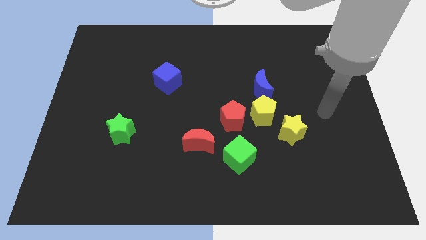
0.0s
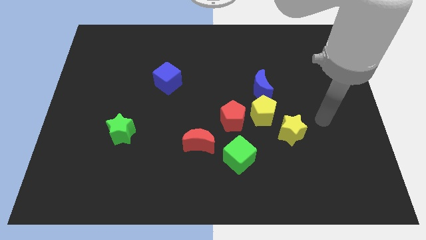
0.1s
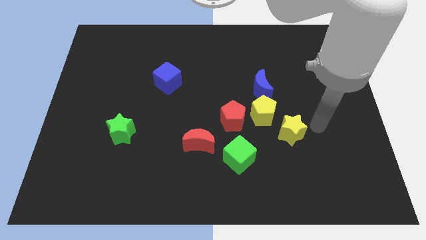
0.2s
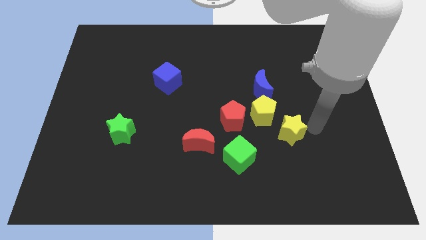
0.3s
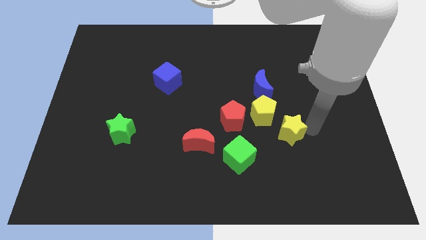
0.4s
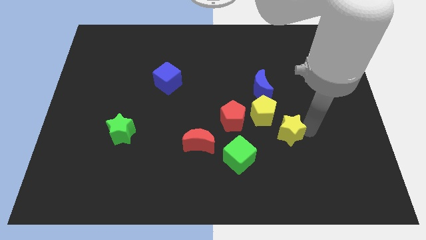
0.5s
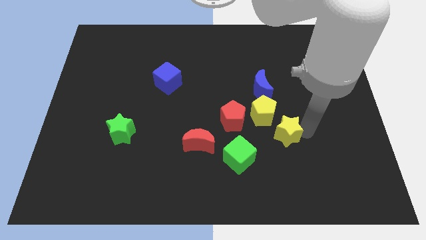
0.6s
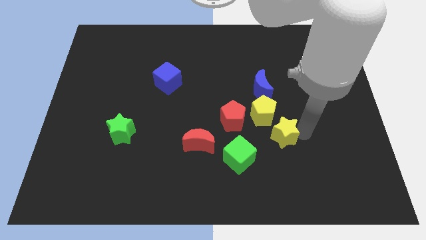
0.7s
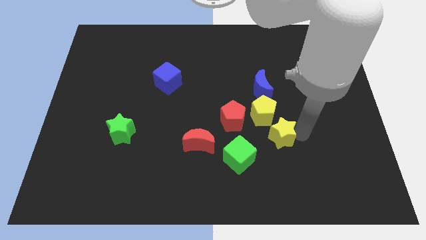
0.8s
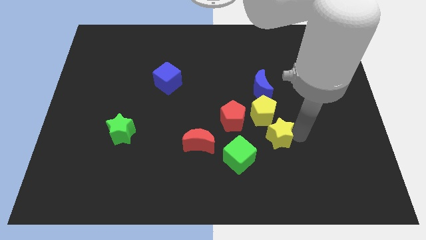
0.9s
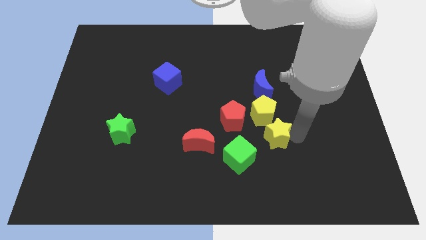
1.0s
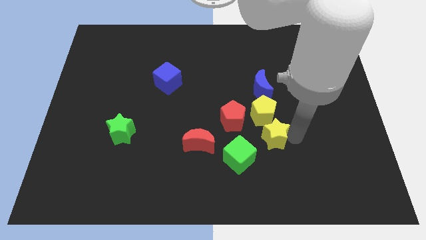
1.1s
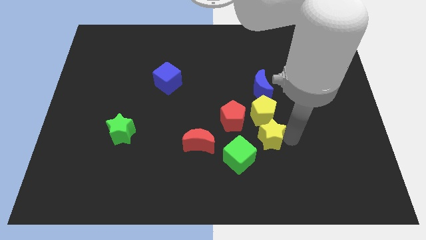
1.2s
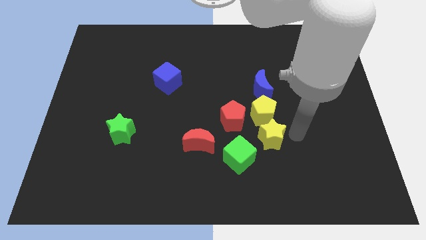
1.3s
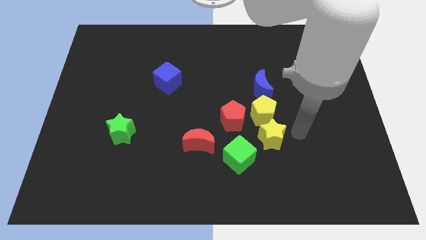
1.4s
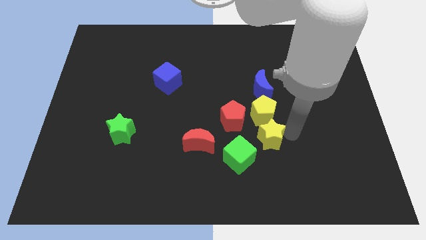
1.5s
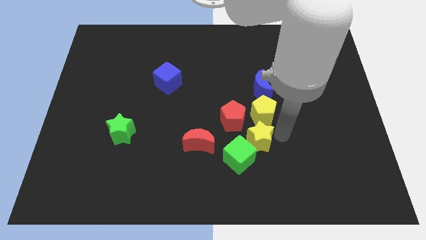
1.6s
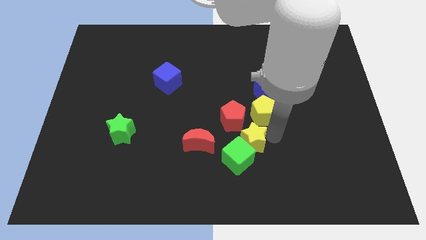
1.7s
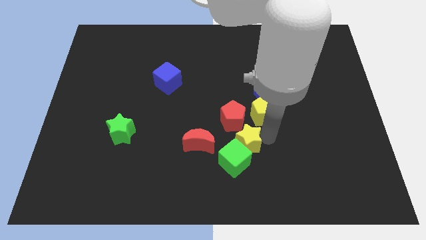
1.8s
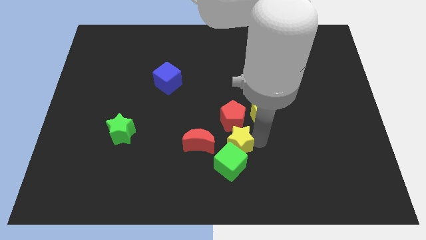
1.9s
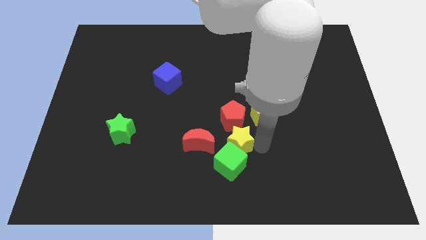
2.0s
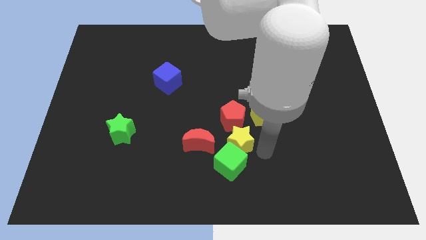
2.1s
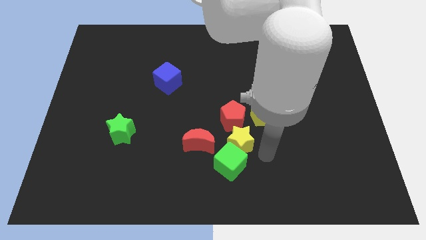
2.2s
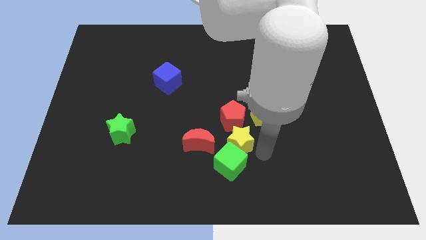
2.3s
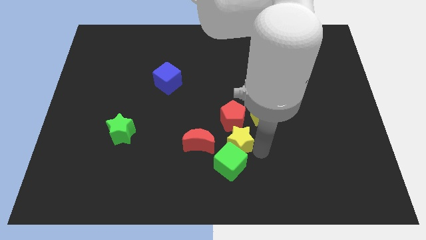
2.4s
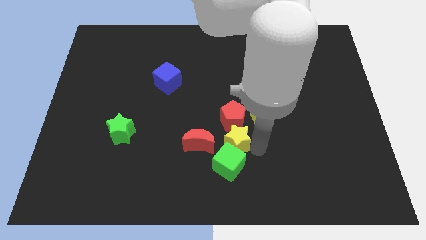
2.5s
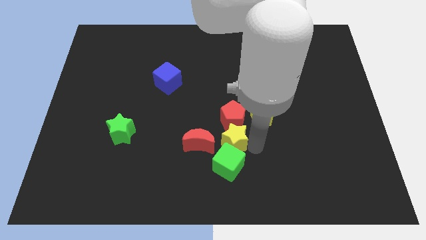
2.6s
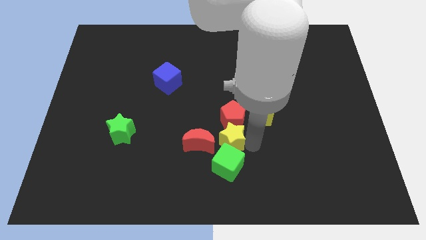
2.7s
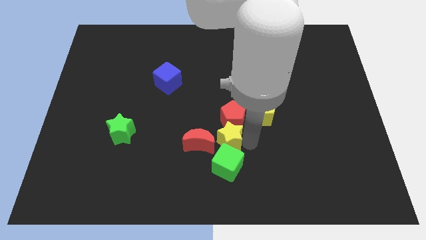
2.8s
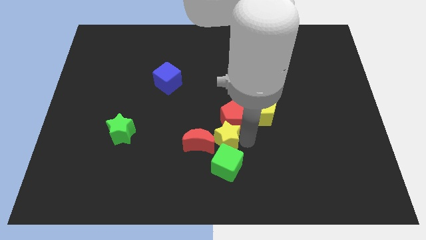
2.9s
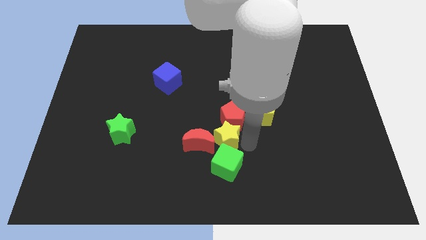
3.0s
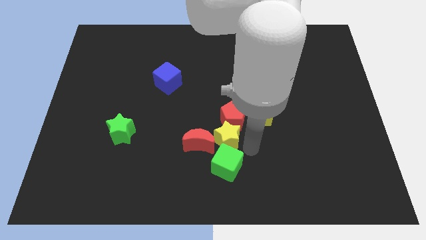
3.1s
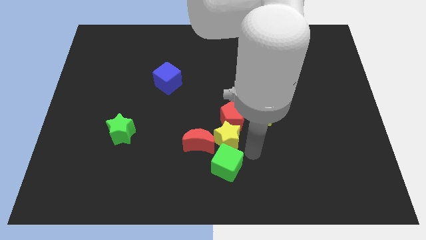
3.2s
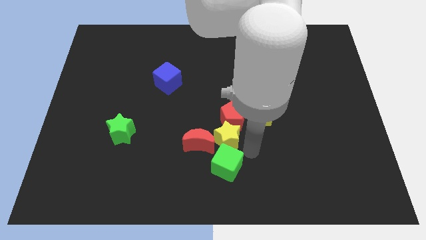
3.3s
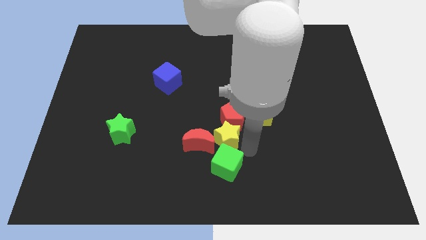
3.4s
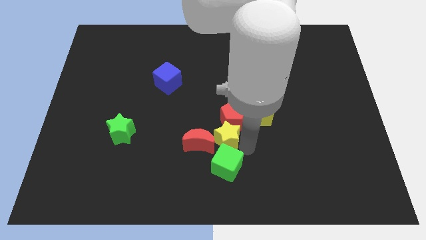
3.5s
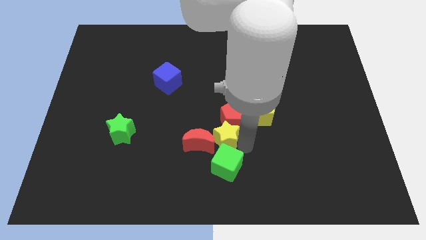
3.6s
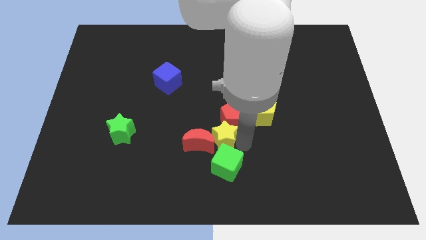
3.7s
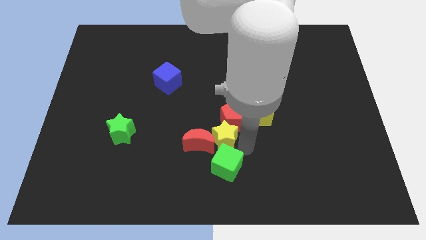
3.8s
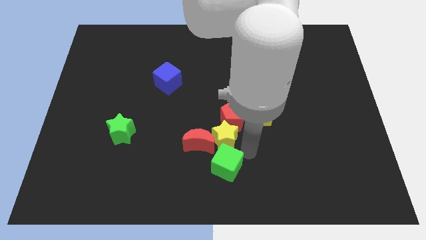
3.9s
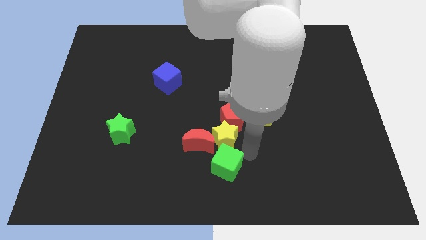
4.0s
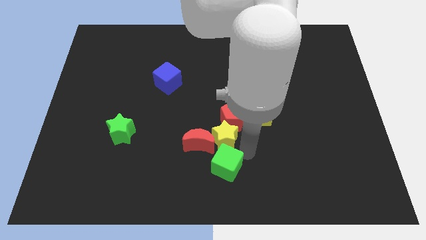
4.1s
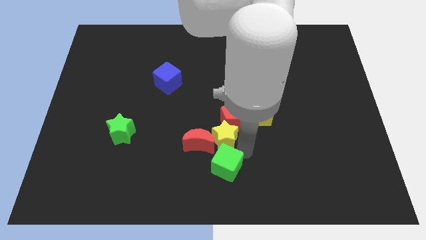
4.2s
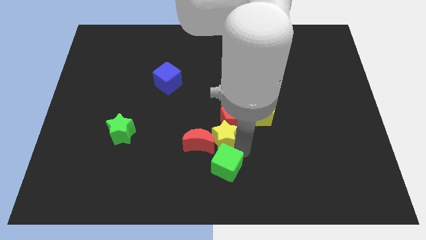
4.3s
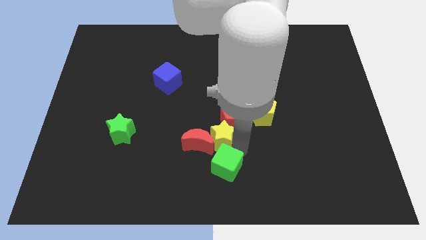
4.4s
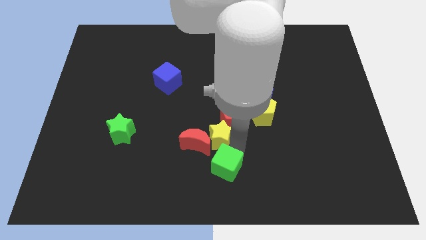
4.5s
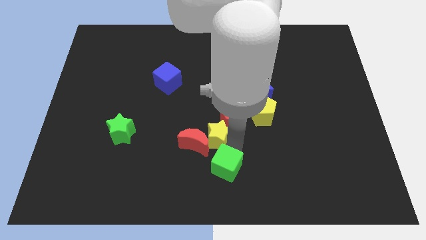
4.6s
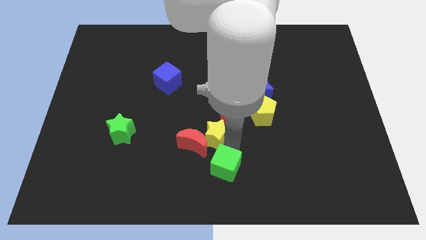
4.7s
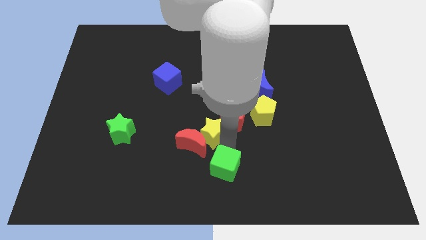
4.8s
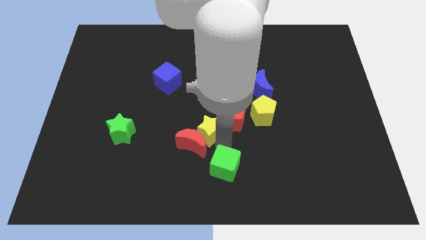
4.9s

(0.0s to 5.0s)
move the yellow star to the top of the red moon

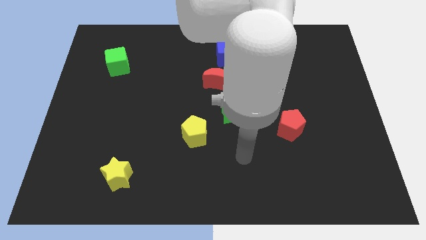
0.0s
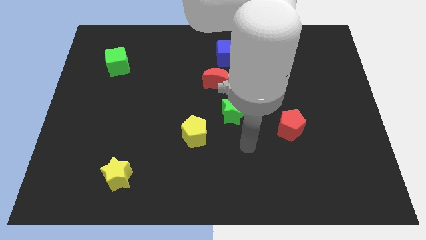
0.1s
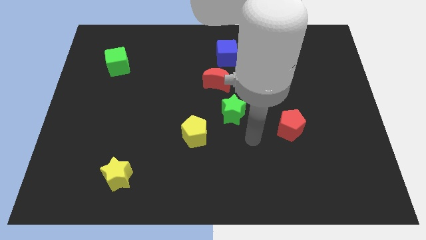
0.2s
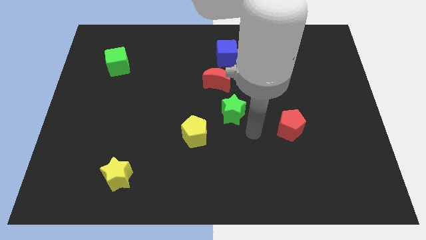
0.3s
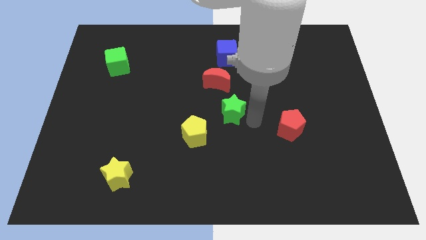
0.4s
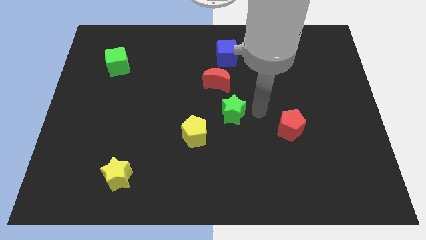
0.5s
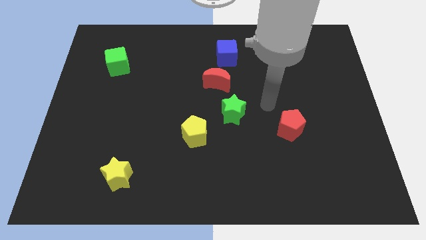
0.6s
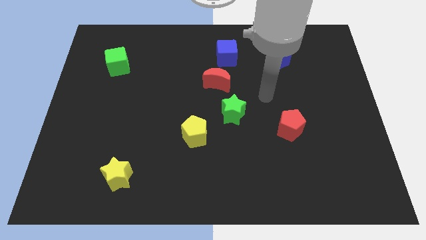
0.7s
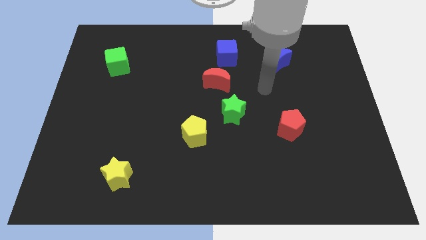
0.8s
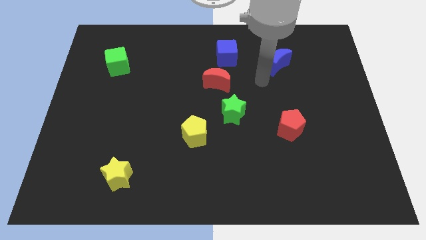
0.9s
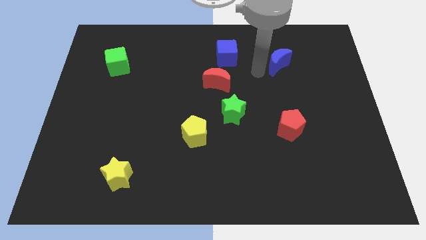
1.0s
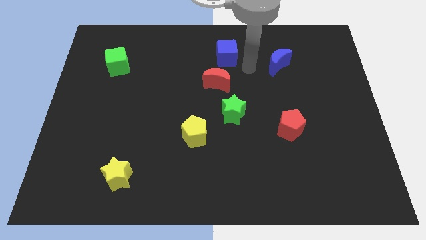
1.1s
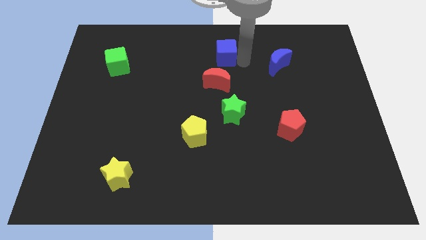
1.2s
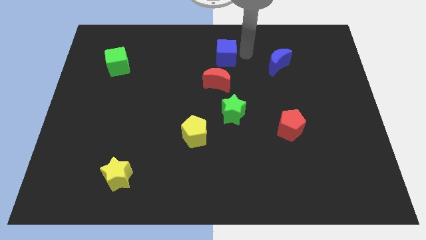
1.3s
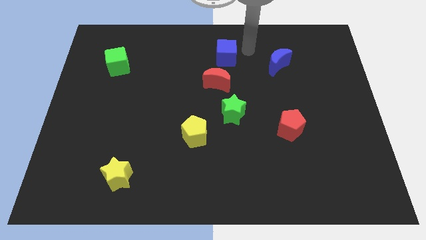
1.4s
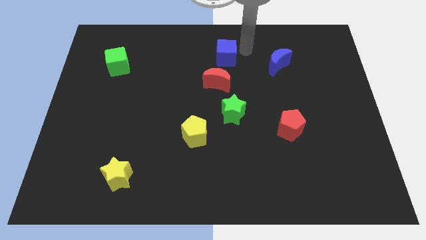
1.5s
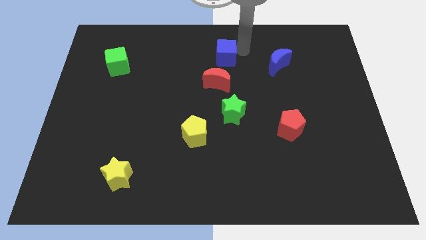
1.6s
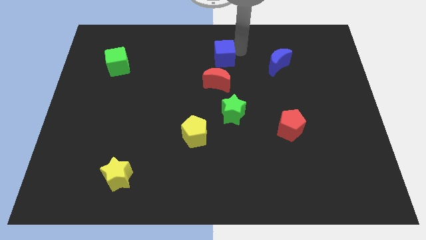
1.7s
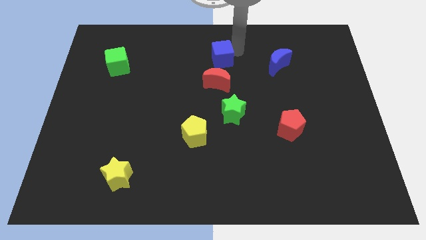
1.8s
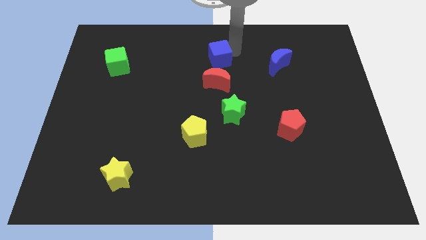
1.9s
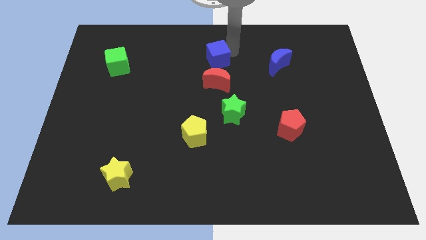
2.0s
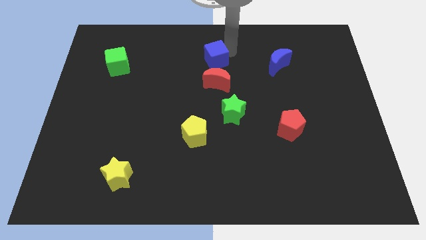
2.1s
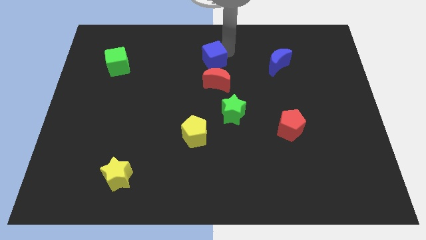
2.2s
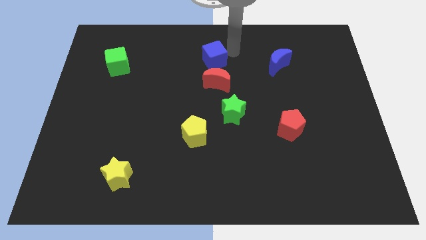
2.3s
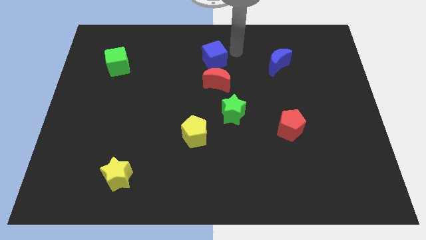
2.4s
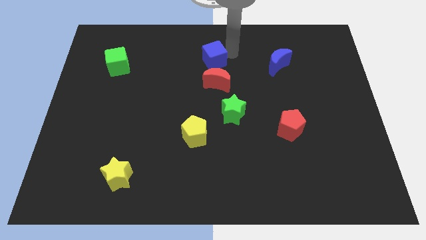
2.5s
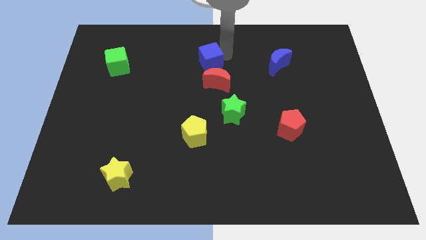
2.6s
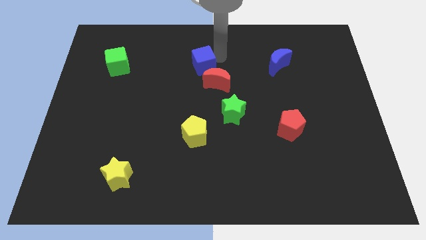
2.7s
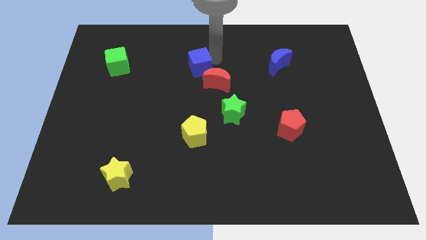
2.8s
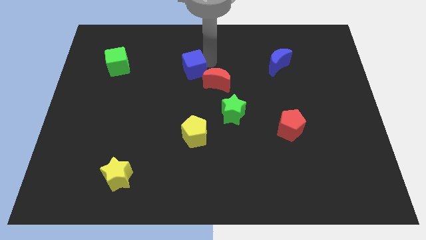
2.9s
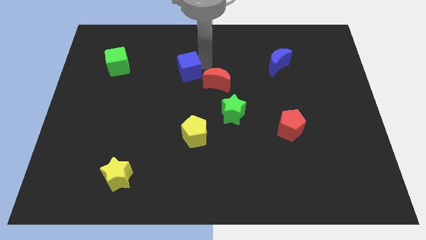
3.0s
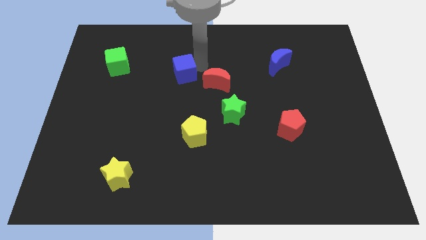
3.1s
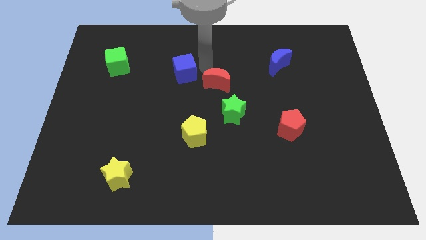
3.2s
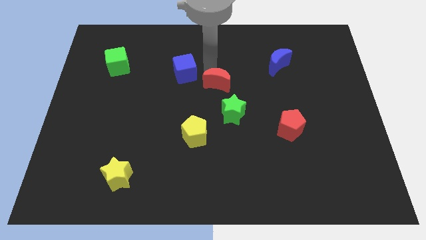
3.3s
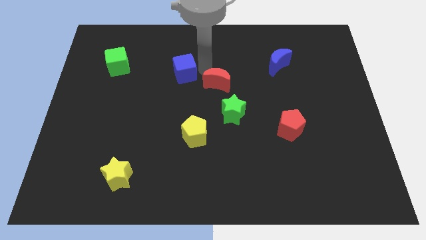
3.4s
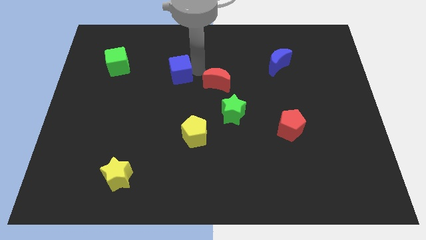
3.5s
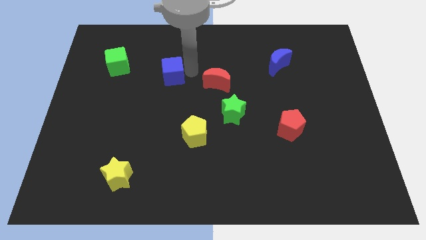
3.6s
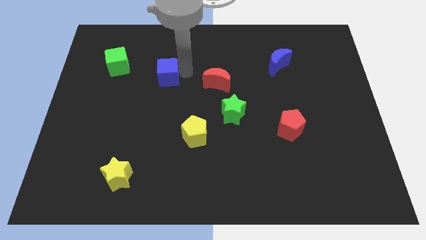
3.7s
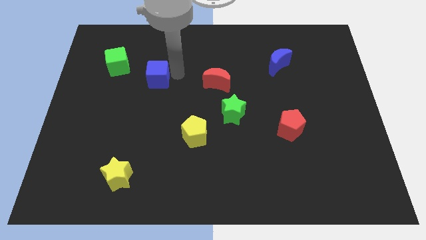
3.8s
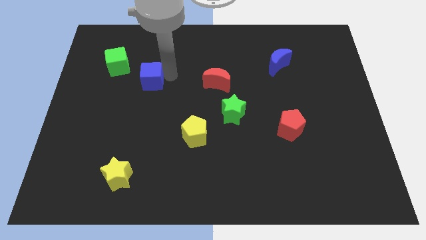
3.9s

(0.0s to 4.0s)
slide the blue cube to the bottom right of the green cube
